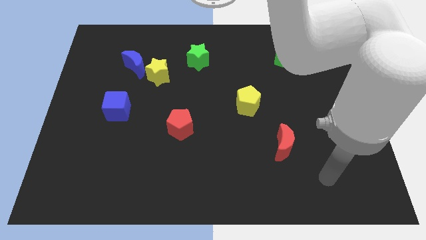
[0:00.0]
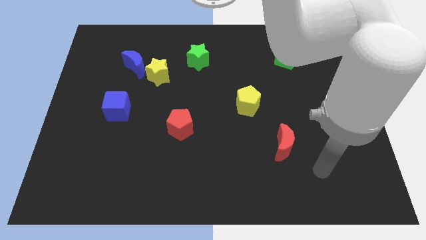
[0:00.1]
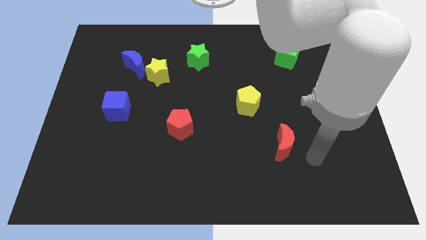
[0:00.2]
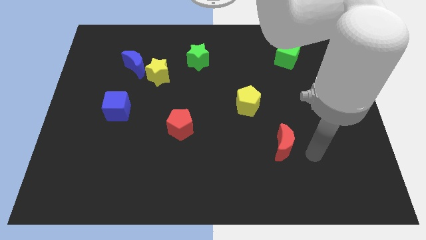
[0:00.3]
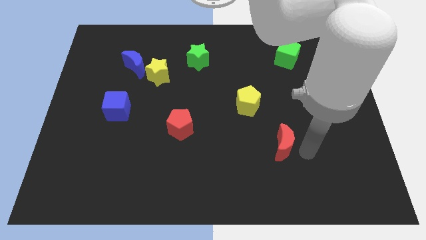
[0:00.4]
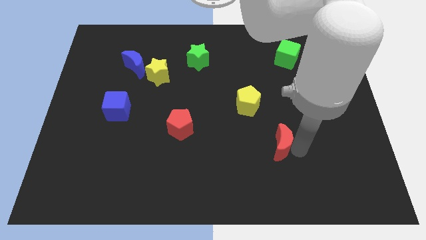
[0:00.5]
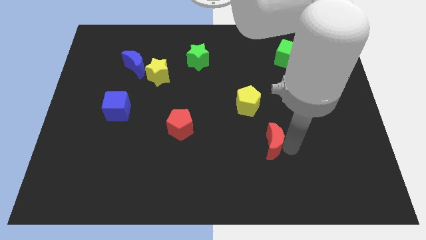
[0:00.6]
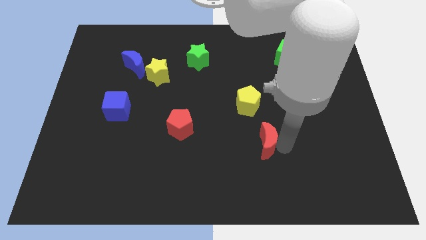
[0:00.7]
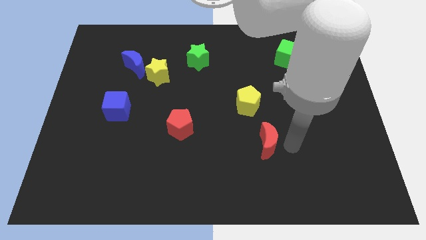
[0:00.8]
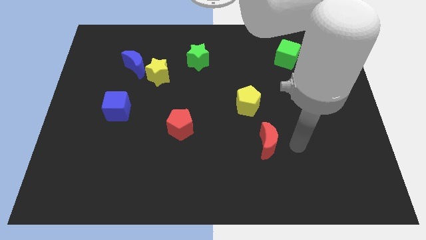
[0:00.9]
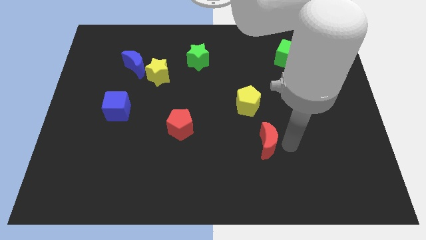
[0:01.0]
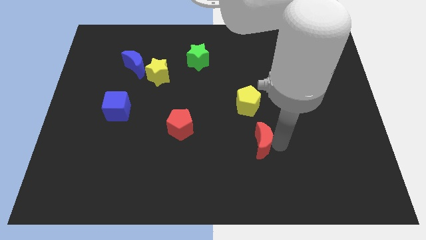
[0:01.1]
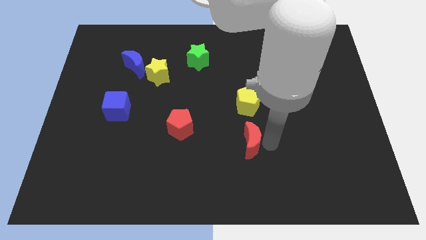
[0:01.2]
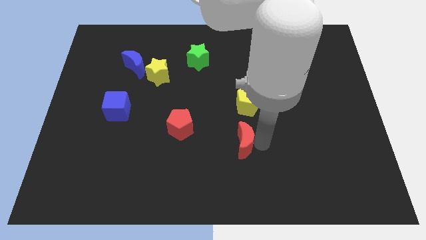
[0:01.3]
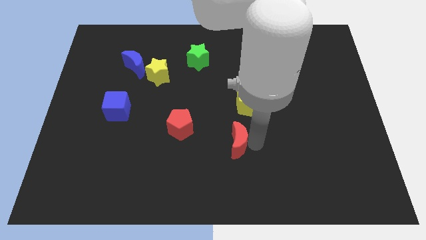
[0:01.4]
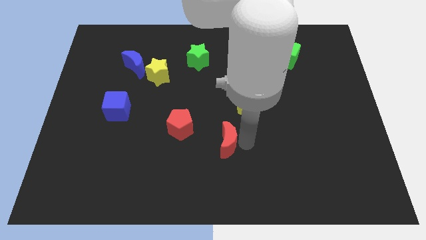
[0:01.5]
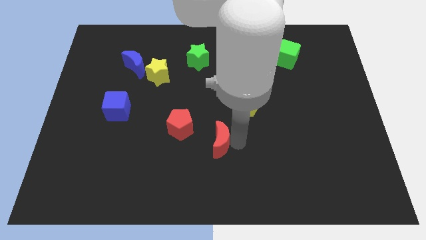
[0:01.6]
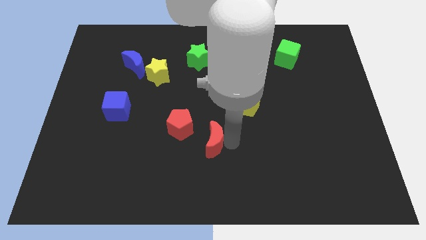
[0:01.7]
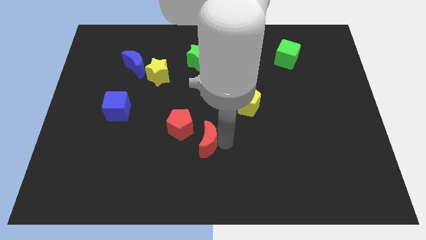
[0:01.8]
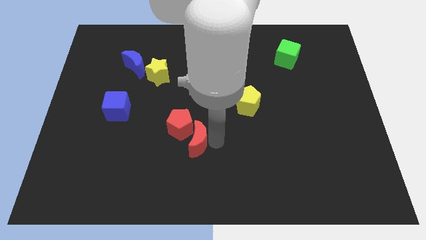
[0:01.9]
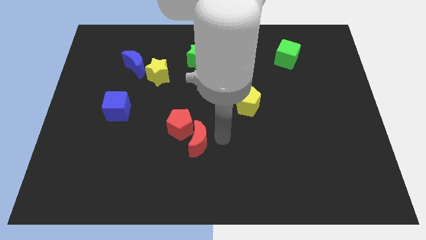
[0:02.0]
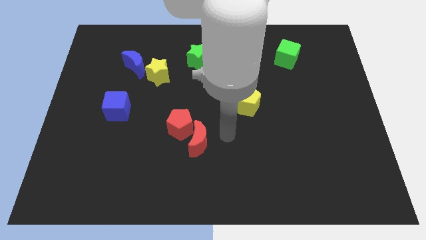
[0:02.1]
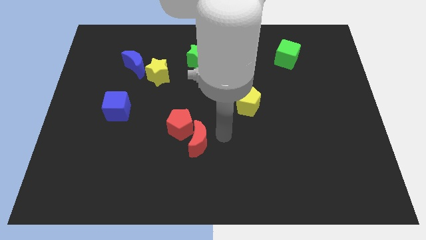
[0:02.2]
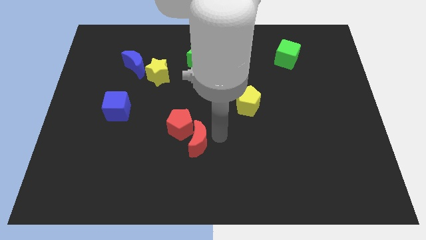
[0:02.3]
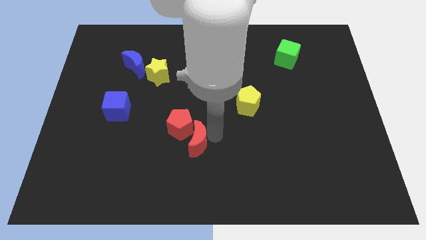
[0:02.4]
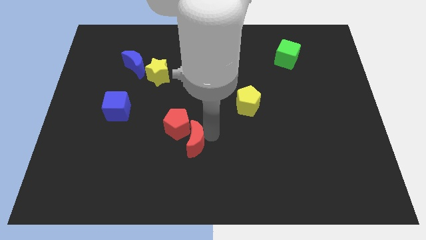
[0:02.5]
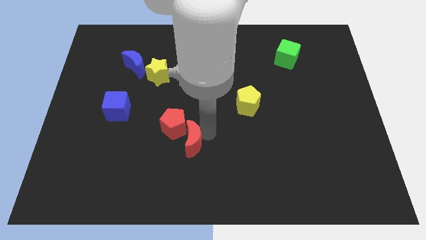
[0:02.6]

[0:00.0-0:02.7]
slide the red moon to the left

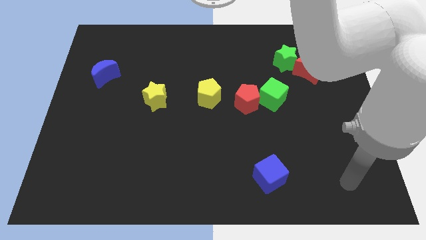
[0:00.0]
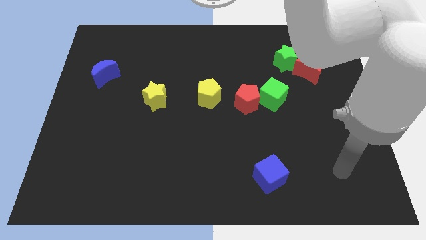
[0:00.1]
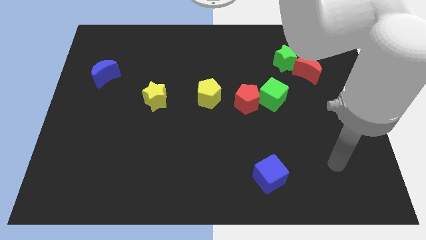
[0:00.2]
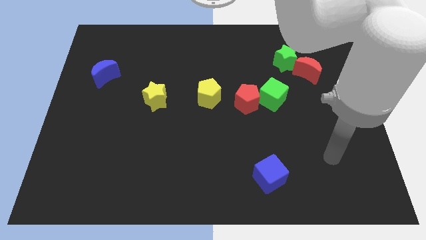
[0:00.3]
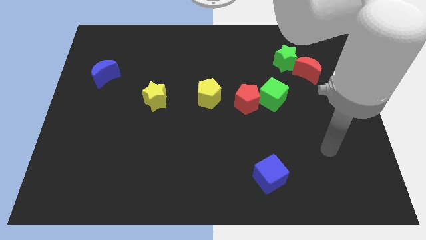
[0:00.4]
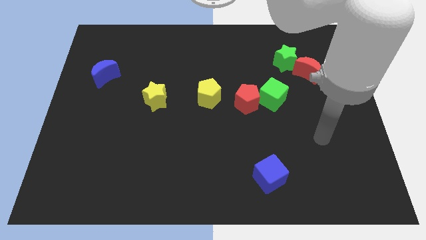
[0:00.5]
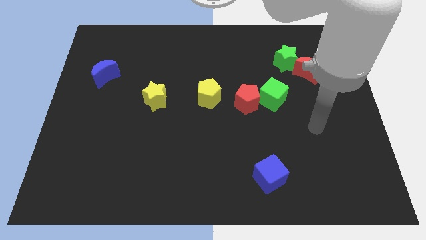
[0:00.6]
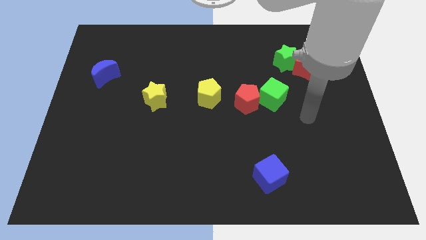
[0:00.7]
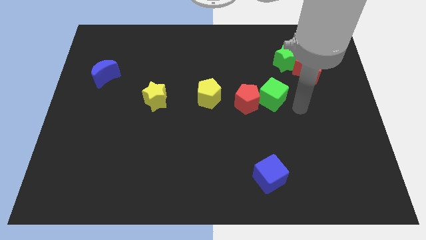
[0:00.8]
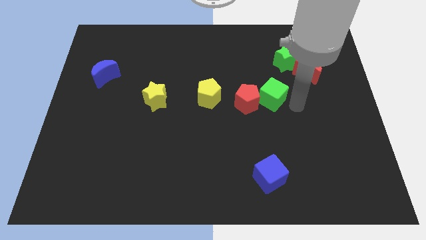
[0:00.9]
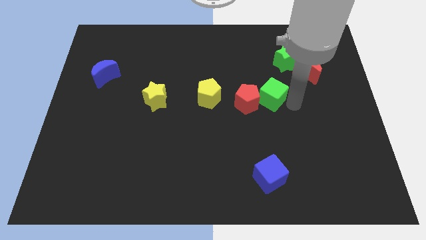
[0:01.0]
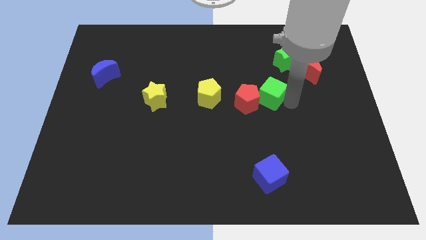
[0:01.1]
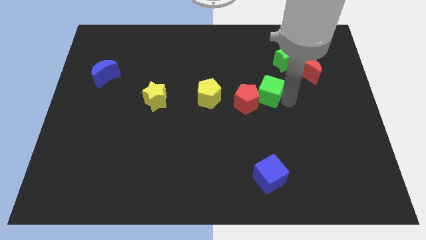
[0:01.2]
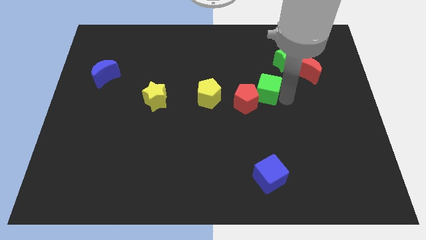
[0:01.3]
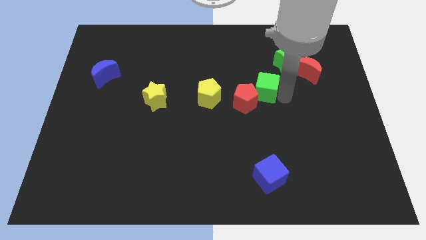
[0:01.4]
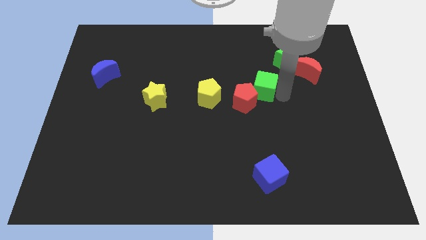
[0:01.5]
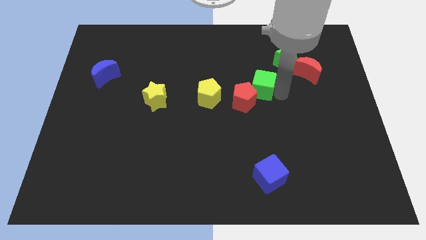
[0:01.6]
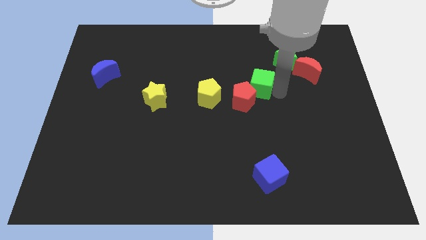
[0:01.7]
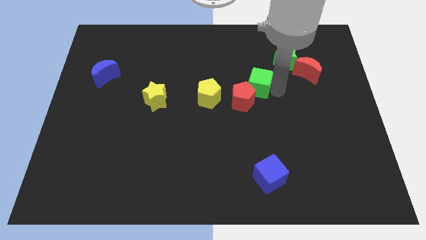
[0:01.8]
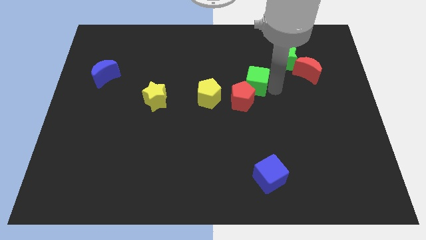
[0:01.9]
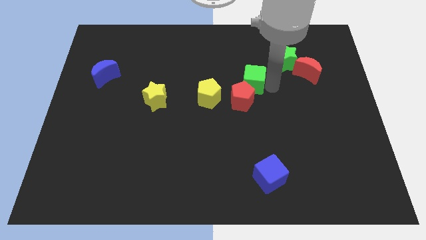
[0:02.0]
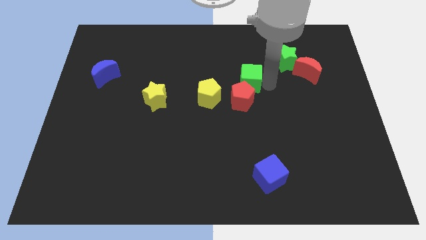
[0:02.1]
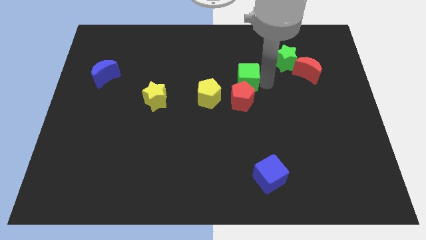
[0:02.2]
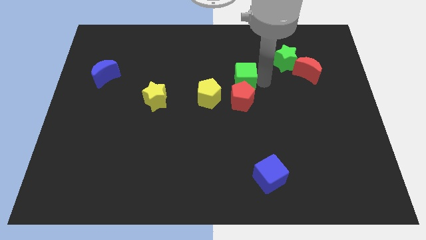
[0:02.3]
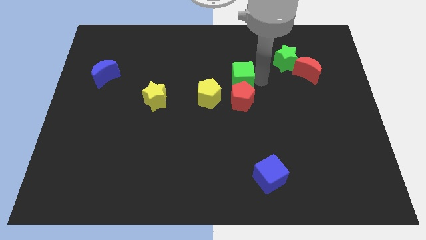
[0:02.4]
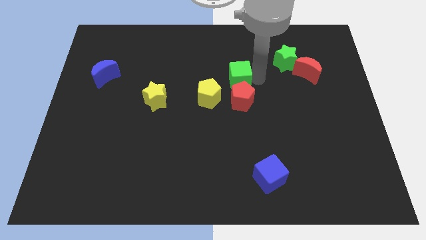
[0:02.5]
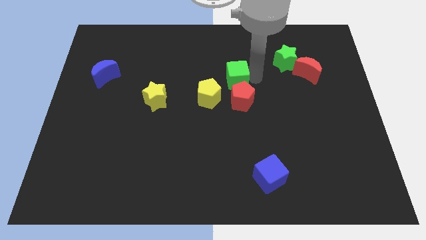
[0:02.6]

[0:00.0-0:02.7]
push the green cube to the left somewhat

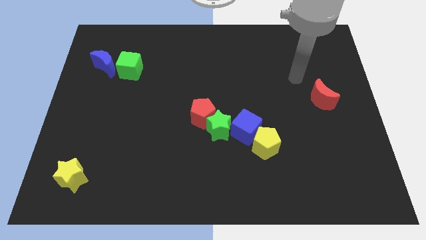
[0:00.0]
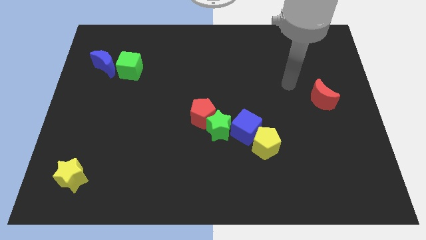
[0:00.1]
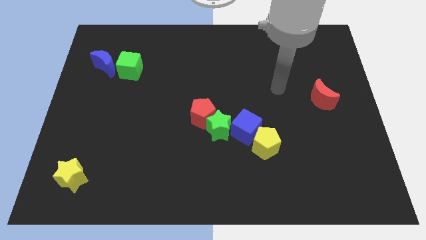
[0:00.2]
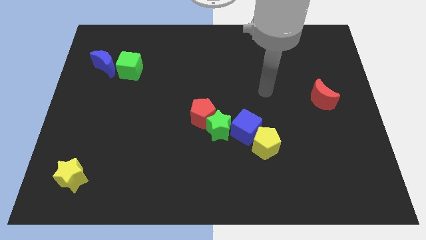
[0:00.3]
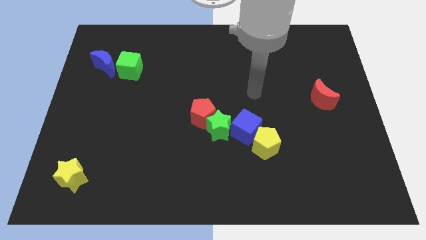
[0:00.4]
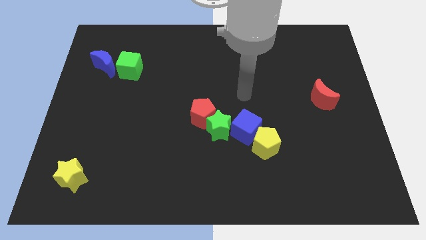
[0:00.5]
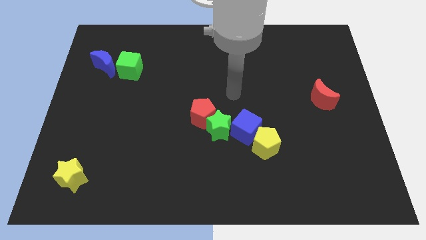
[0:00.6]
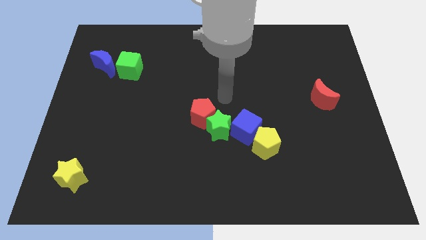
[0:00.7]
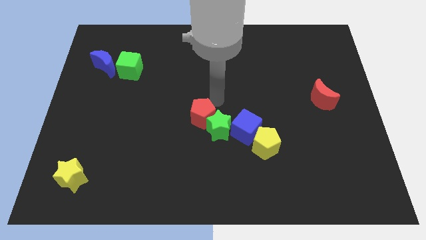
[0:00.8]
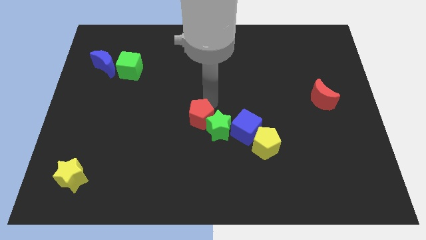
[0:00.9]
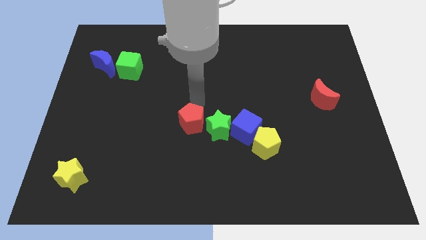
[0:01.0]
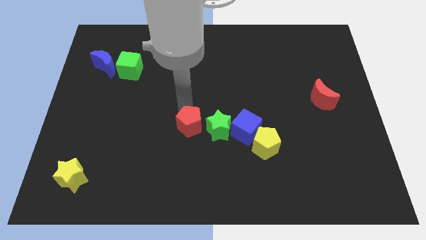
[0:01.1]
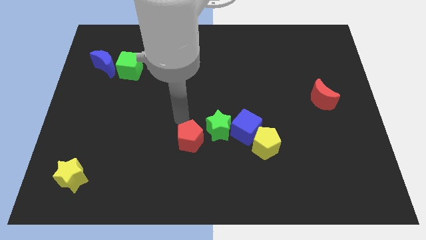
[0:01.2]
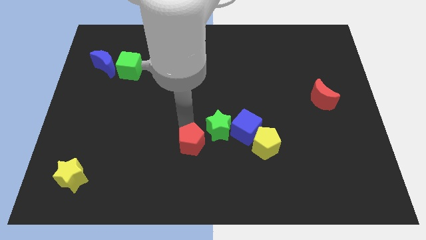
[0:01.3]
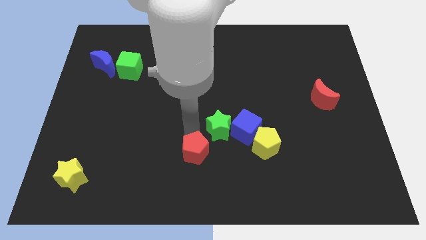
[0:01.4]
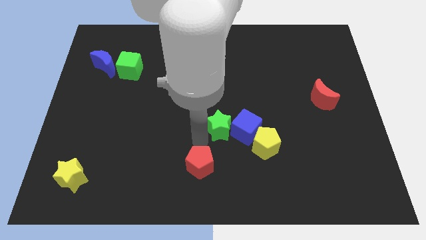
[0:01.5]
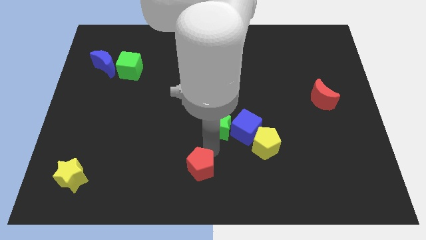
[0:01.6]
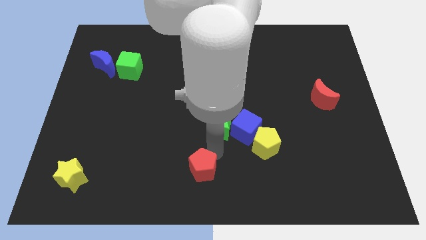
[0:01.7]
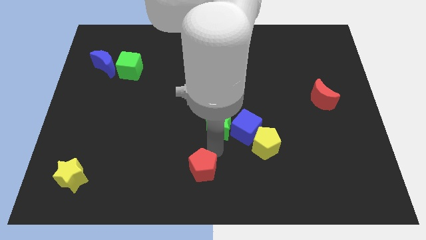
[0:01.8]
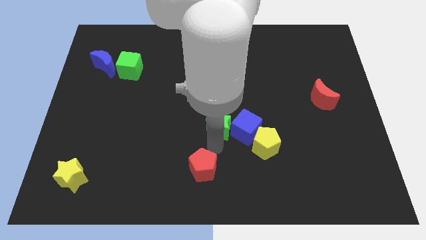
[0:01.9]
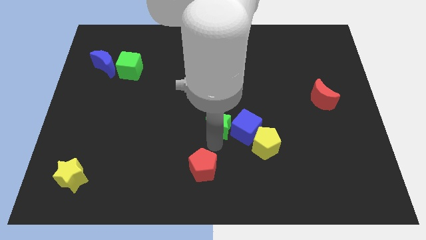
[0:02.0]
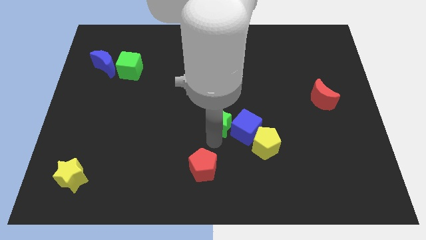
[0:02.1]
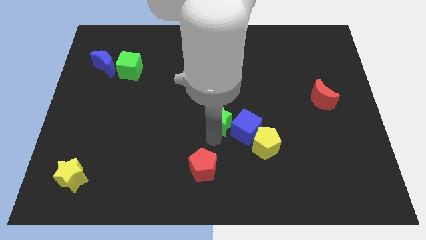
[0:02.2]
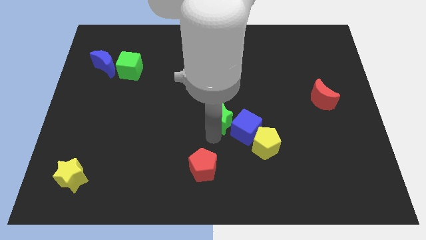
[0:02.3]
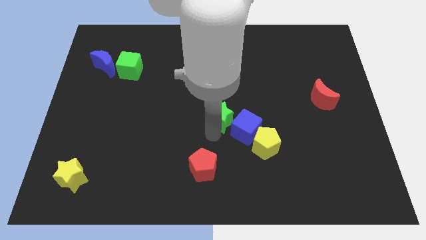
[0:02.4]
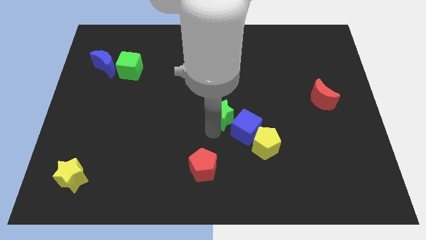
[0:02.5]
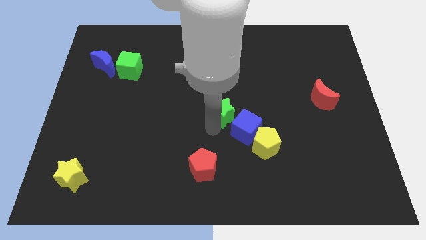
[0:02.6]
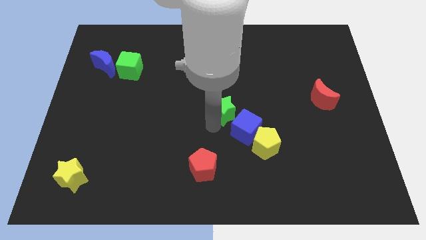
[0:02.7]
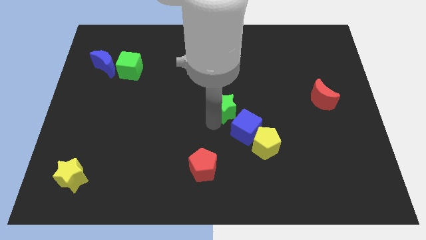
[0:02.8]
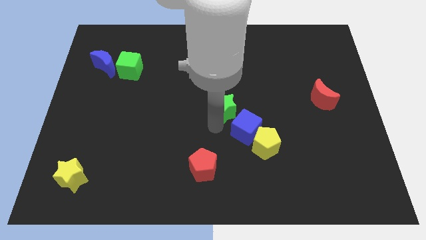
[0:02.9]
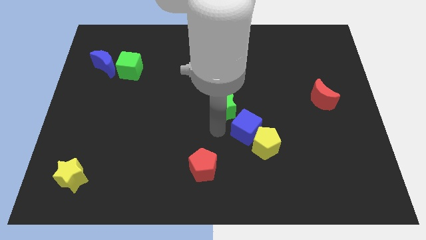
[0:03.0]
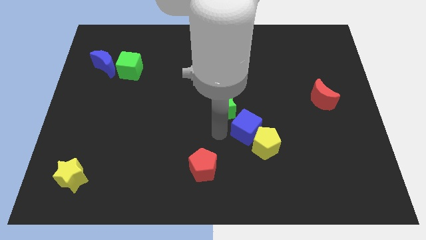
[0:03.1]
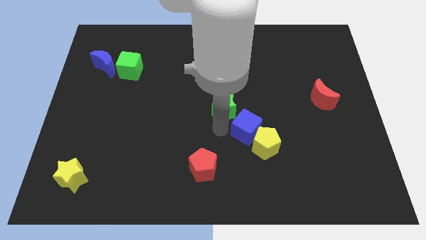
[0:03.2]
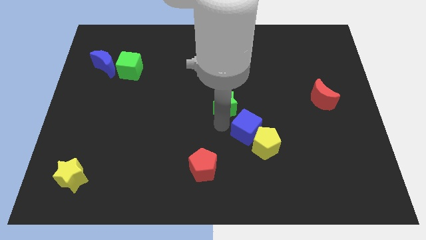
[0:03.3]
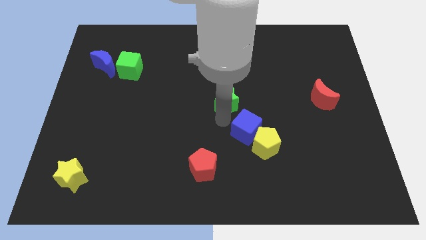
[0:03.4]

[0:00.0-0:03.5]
push the green star somewhat up
